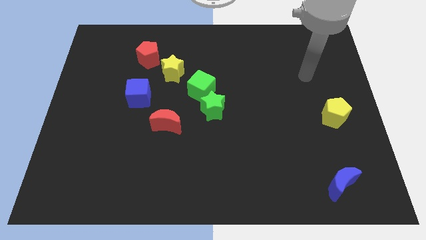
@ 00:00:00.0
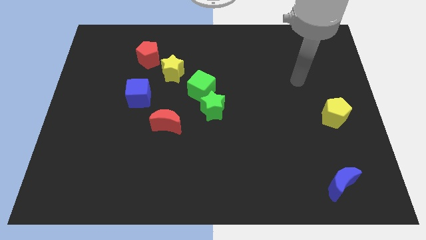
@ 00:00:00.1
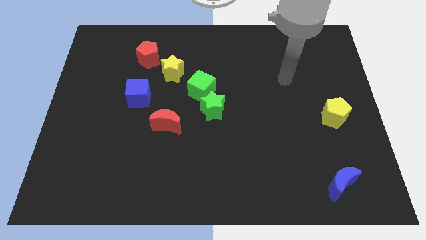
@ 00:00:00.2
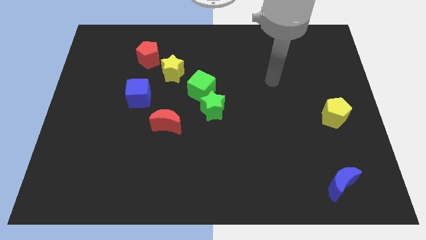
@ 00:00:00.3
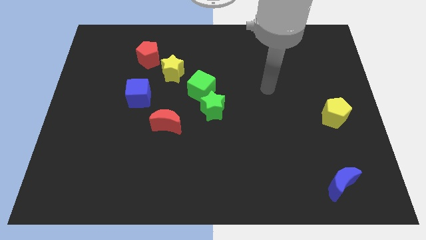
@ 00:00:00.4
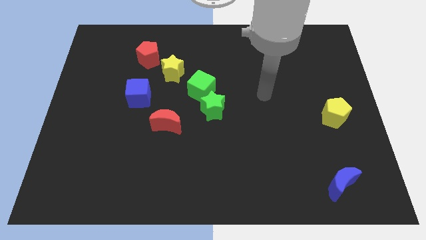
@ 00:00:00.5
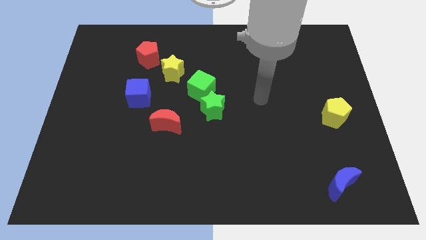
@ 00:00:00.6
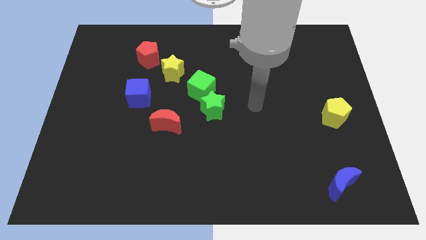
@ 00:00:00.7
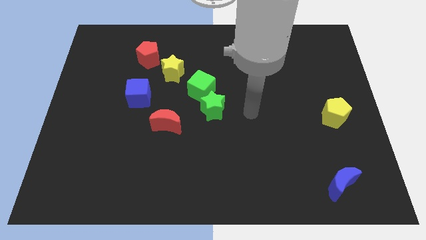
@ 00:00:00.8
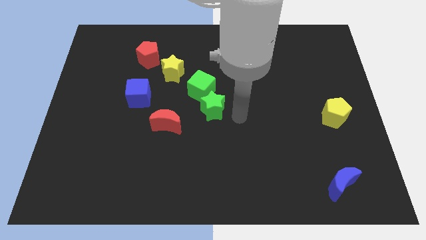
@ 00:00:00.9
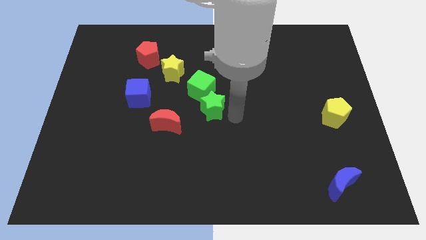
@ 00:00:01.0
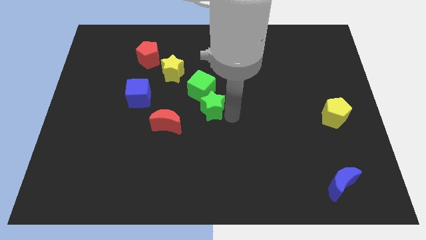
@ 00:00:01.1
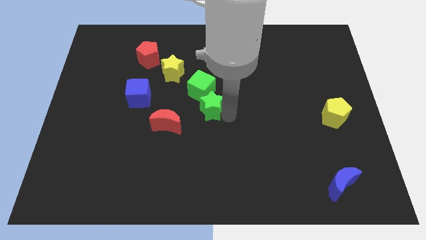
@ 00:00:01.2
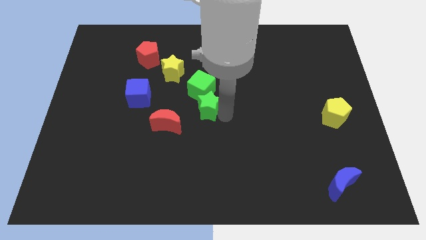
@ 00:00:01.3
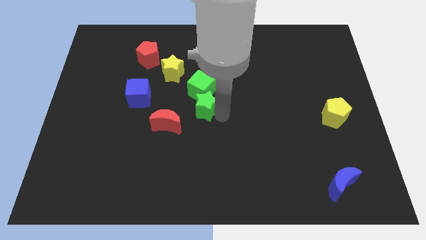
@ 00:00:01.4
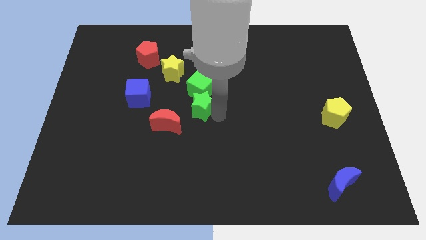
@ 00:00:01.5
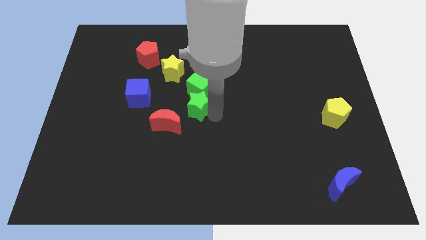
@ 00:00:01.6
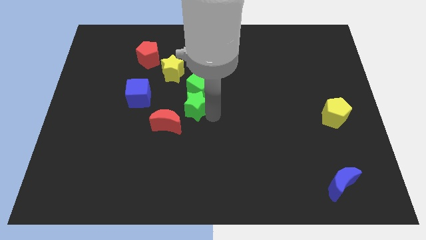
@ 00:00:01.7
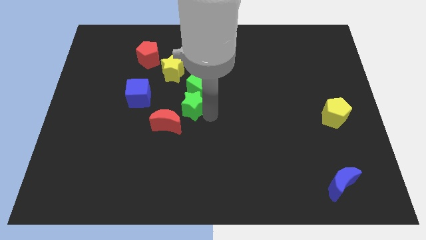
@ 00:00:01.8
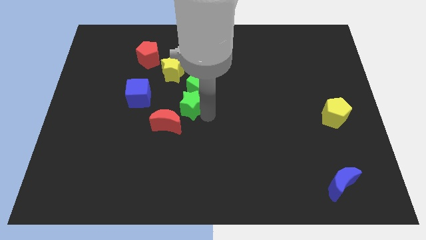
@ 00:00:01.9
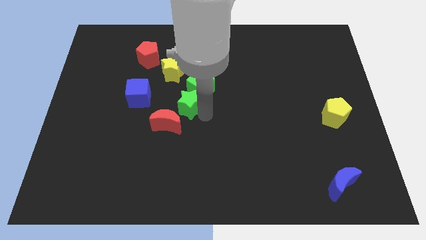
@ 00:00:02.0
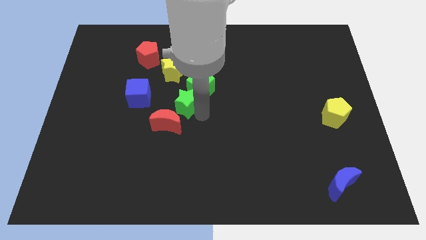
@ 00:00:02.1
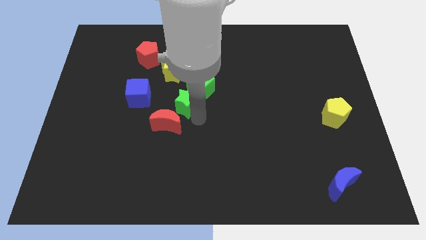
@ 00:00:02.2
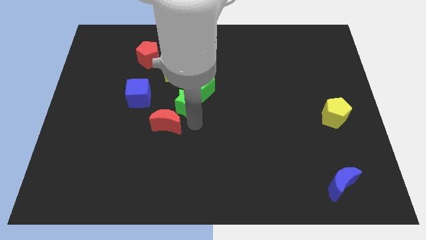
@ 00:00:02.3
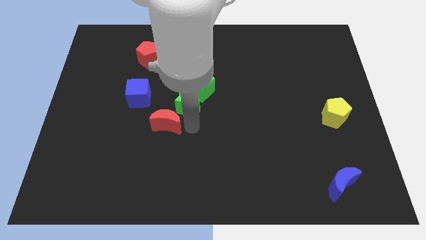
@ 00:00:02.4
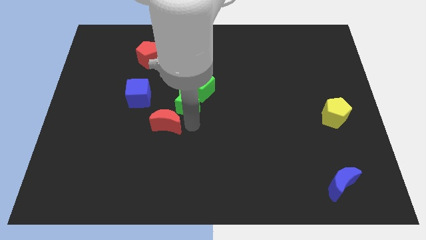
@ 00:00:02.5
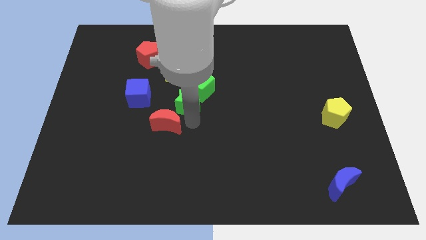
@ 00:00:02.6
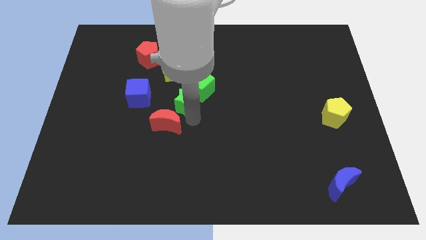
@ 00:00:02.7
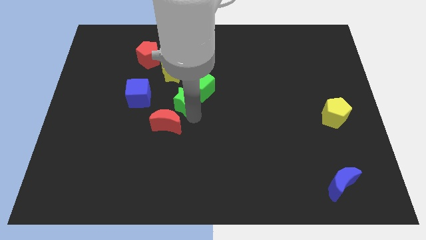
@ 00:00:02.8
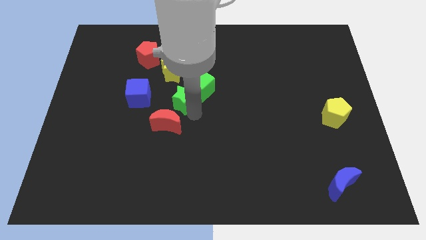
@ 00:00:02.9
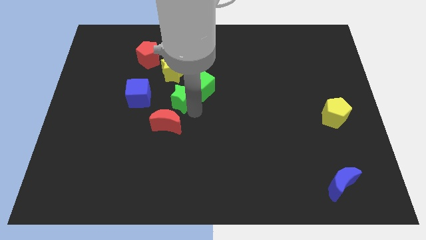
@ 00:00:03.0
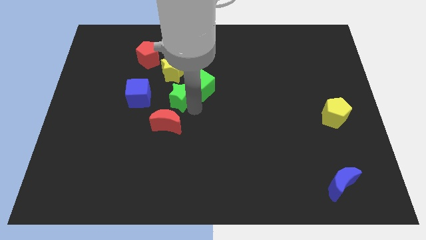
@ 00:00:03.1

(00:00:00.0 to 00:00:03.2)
slide the green star a little upwards and then to the left

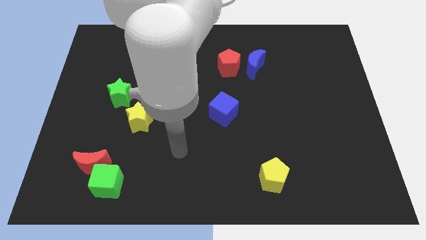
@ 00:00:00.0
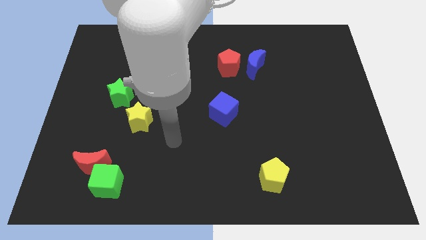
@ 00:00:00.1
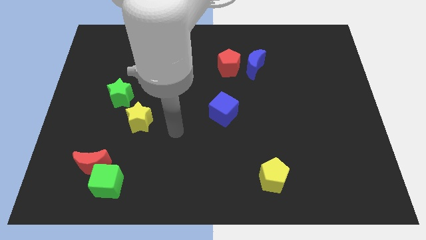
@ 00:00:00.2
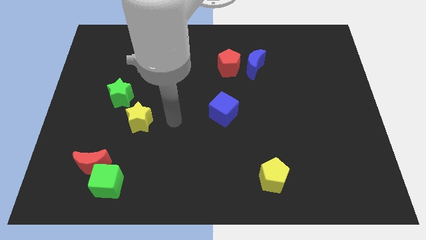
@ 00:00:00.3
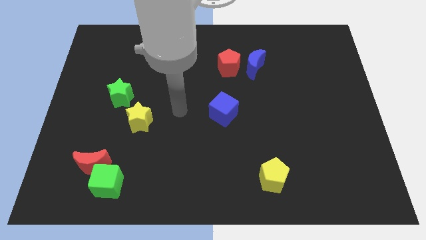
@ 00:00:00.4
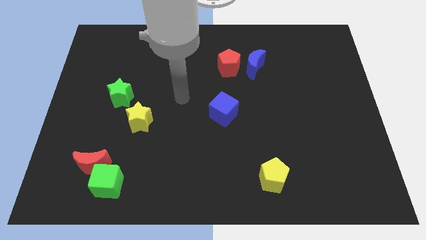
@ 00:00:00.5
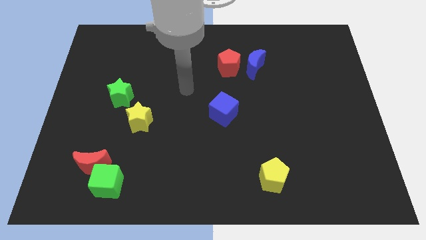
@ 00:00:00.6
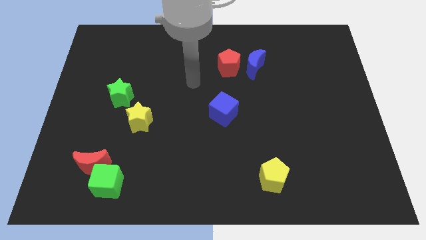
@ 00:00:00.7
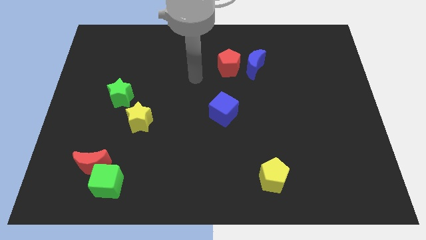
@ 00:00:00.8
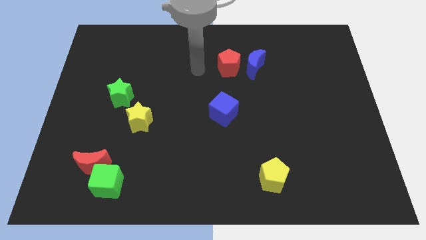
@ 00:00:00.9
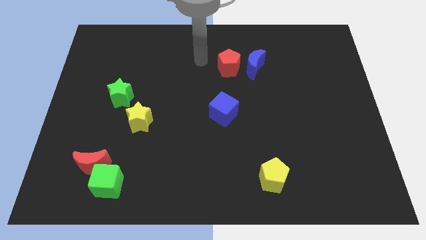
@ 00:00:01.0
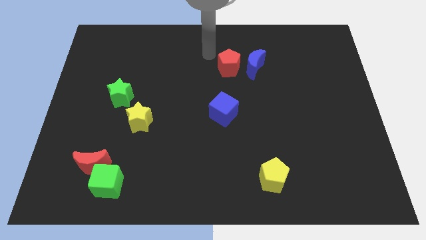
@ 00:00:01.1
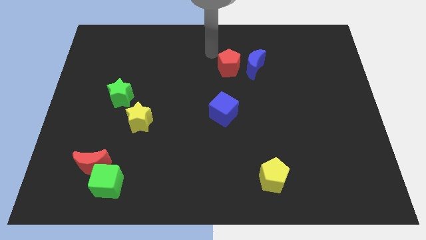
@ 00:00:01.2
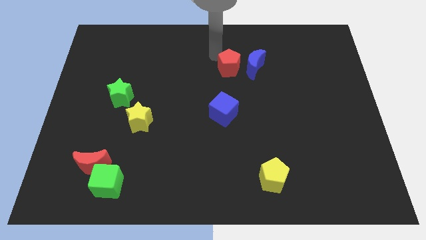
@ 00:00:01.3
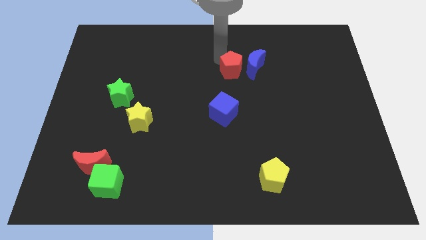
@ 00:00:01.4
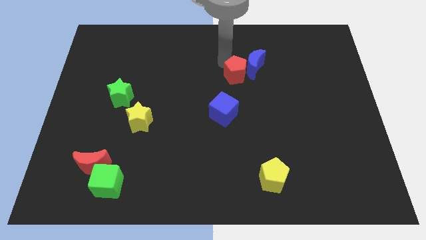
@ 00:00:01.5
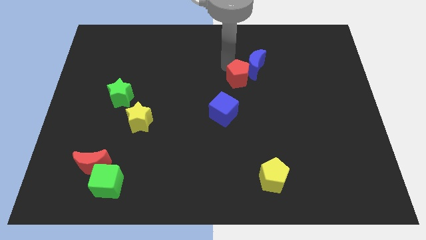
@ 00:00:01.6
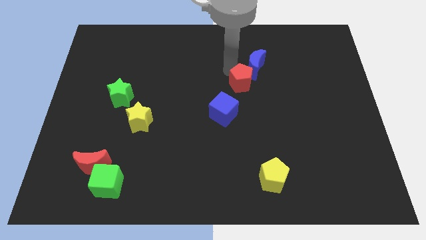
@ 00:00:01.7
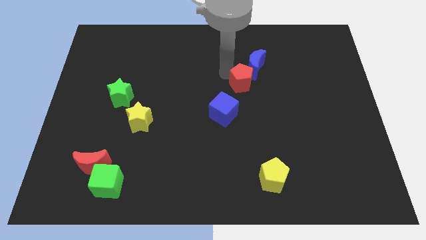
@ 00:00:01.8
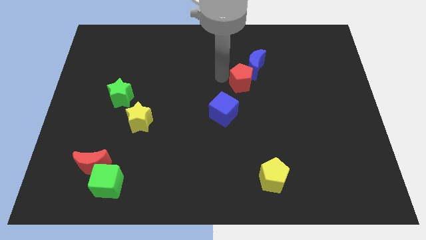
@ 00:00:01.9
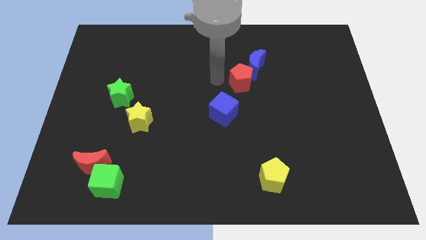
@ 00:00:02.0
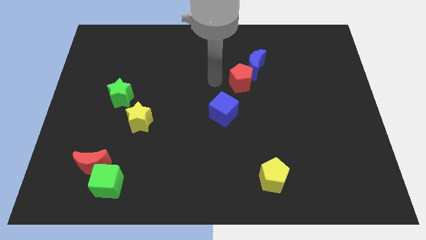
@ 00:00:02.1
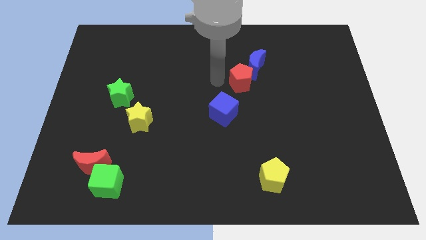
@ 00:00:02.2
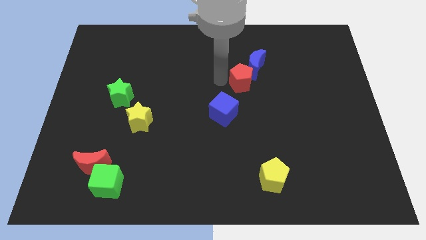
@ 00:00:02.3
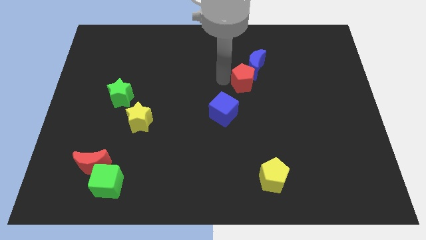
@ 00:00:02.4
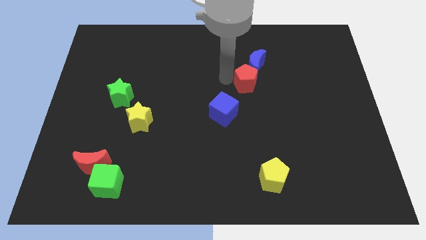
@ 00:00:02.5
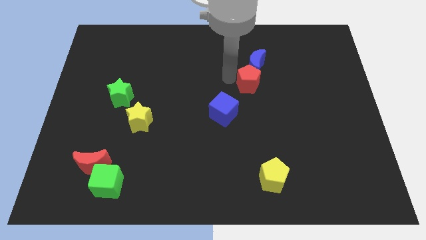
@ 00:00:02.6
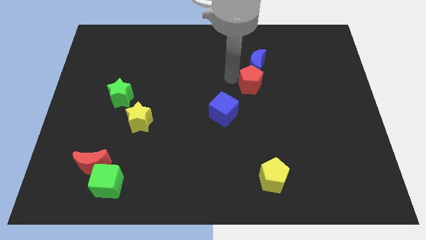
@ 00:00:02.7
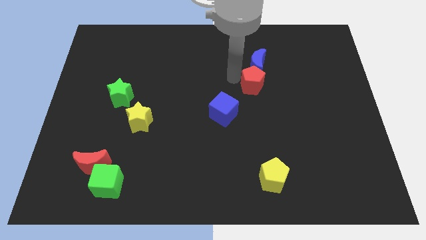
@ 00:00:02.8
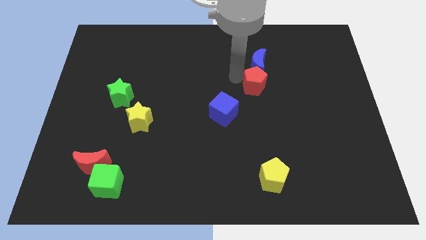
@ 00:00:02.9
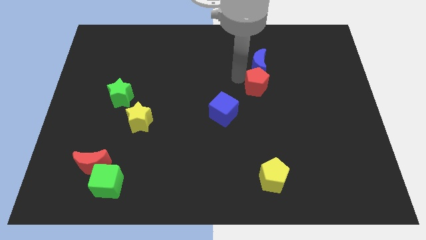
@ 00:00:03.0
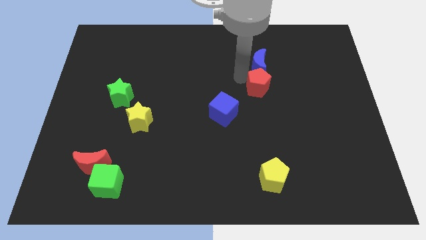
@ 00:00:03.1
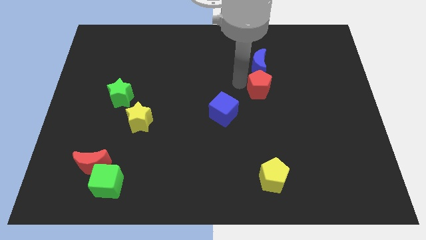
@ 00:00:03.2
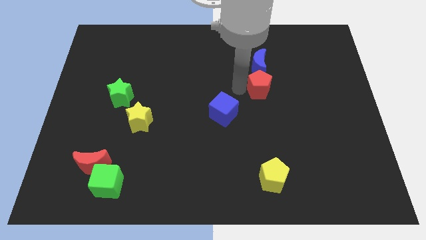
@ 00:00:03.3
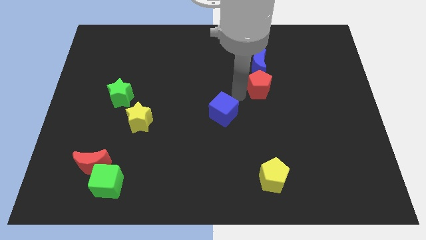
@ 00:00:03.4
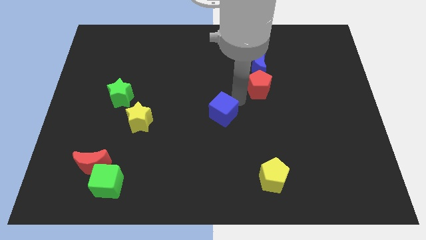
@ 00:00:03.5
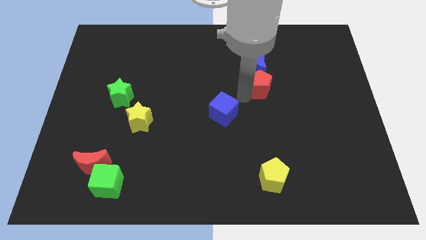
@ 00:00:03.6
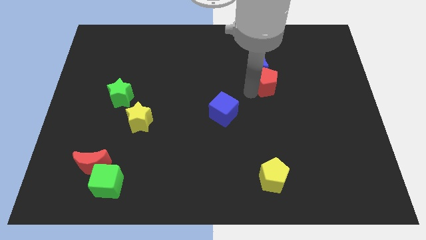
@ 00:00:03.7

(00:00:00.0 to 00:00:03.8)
slide the red pentagon right a bit

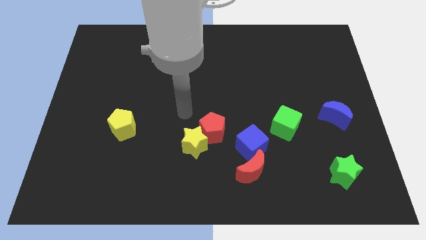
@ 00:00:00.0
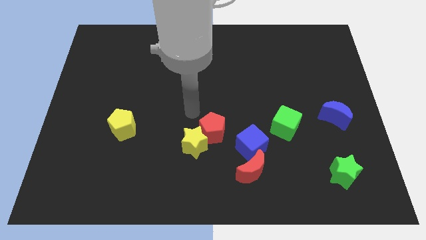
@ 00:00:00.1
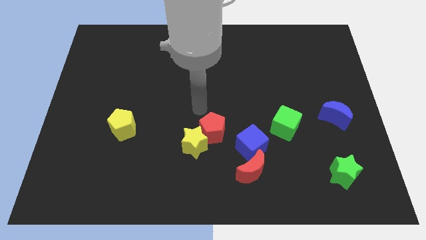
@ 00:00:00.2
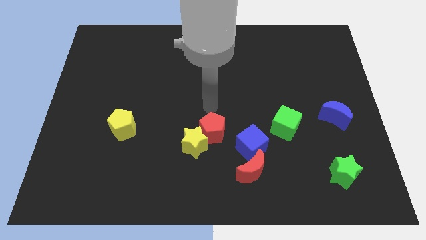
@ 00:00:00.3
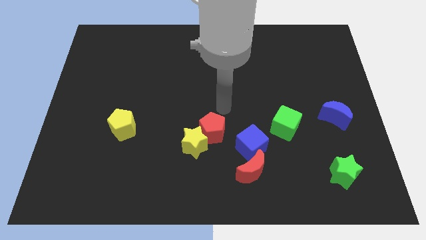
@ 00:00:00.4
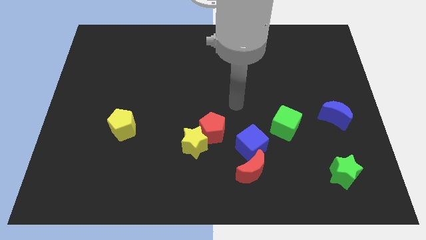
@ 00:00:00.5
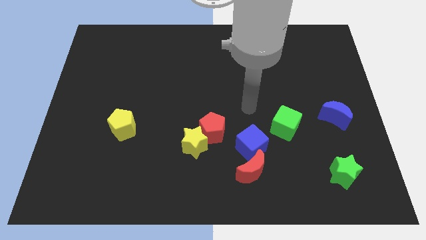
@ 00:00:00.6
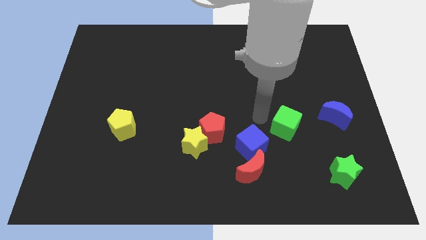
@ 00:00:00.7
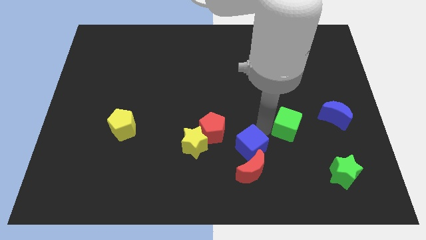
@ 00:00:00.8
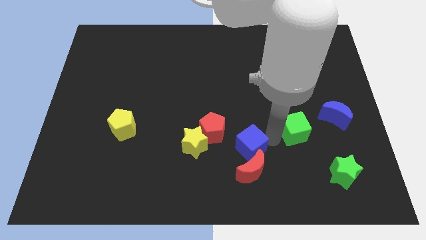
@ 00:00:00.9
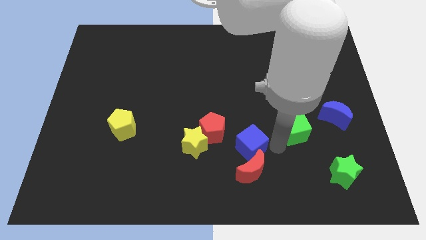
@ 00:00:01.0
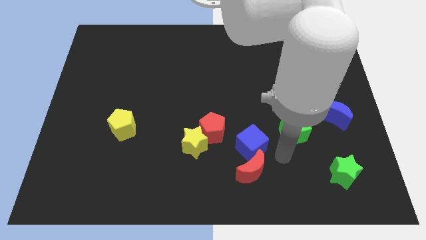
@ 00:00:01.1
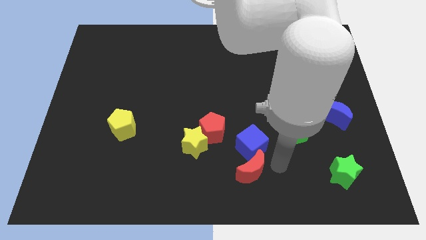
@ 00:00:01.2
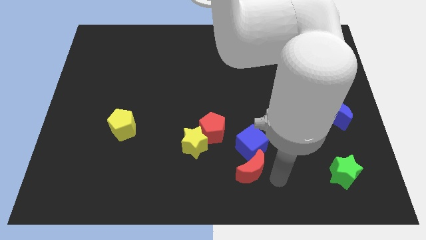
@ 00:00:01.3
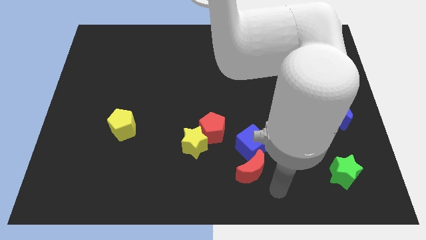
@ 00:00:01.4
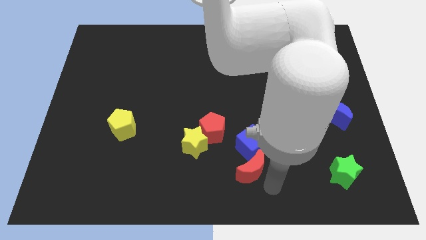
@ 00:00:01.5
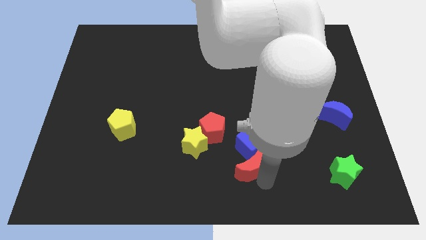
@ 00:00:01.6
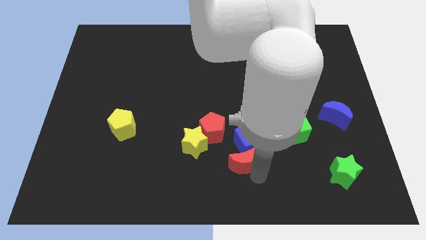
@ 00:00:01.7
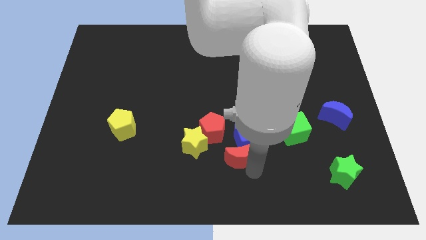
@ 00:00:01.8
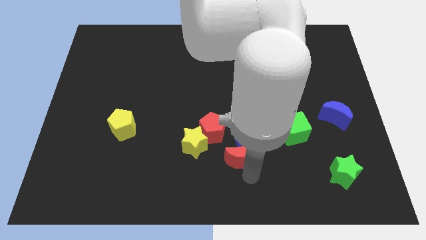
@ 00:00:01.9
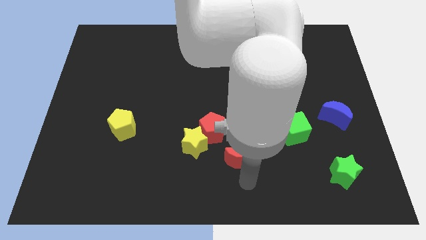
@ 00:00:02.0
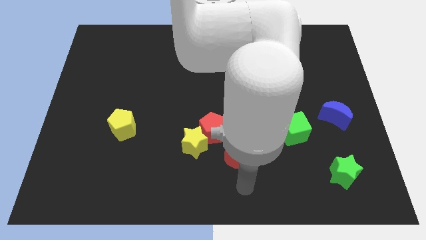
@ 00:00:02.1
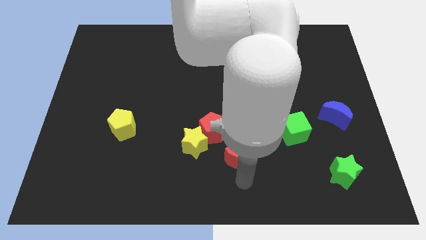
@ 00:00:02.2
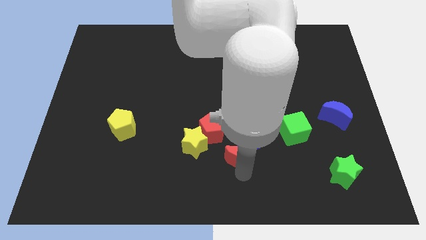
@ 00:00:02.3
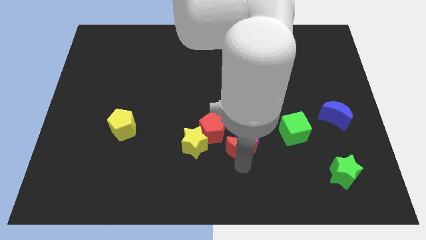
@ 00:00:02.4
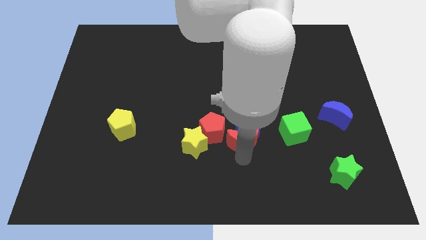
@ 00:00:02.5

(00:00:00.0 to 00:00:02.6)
move the red moon up slightly
